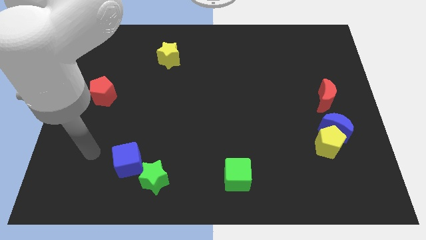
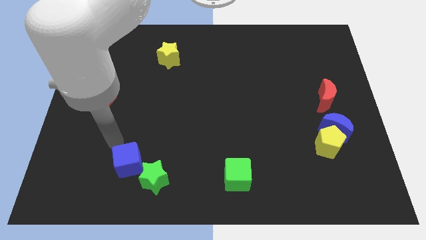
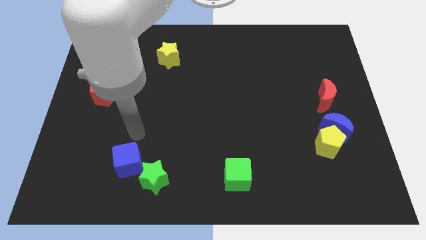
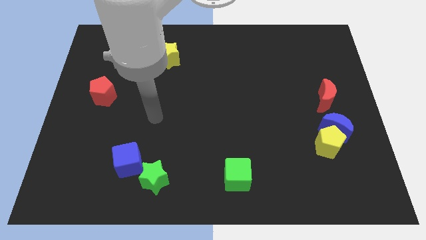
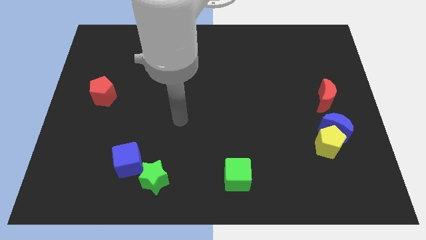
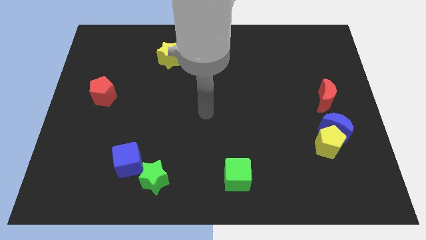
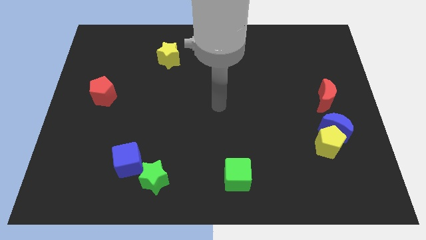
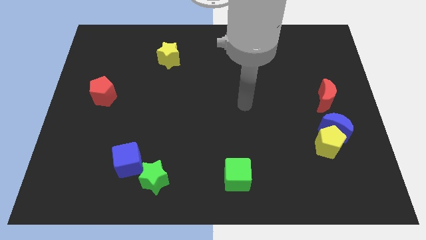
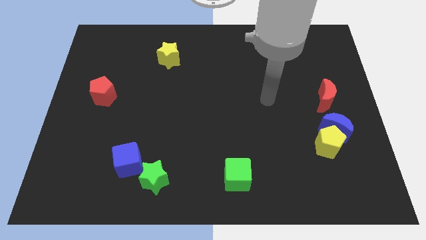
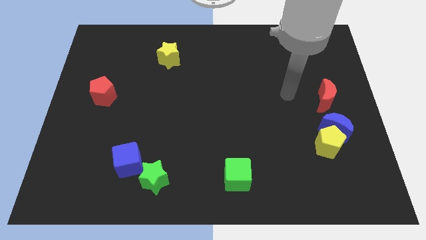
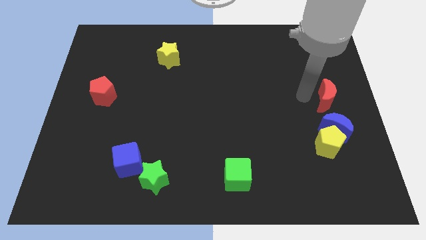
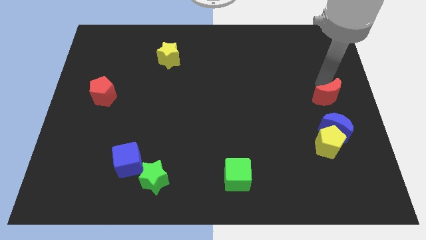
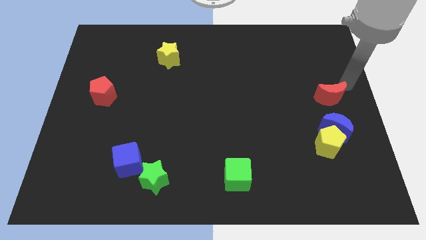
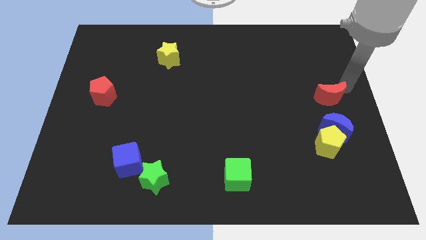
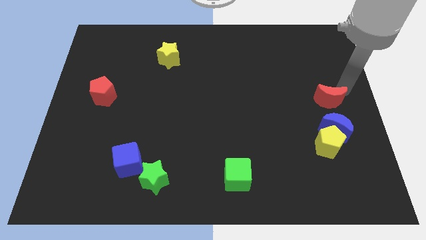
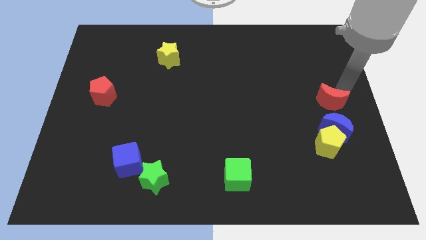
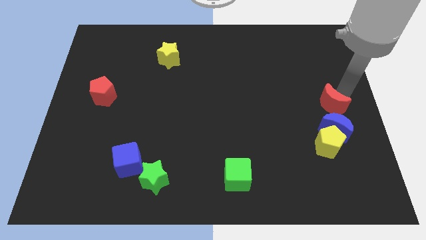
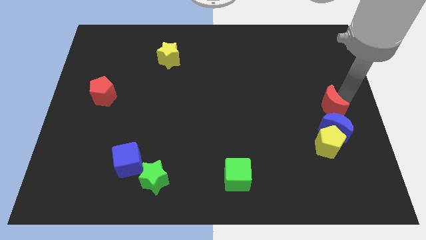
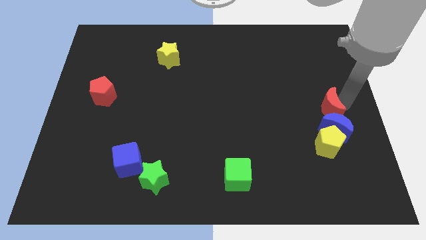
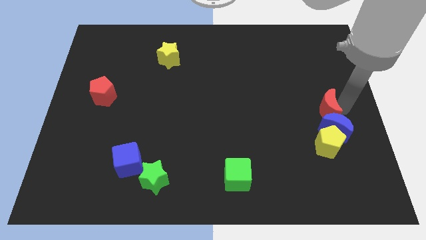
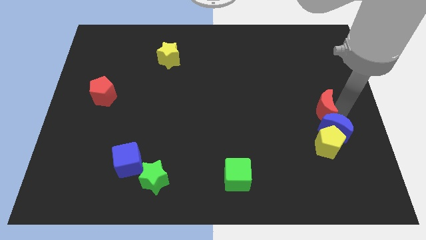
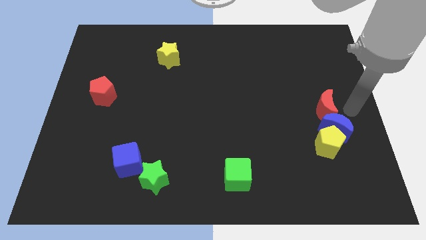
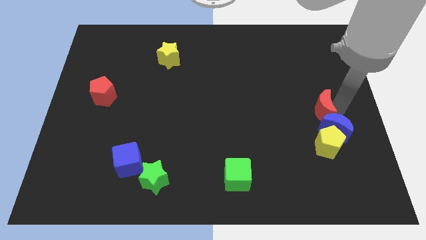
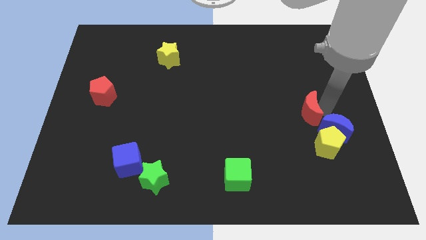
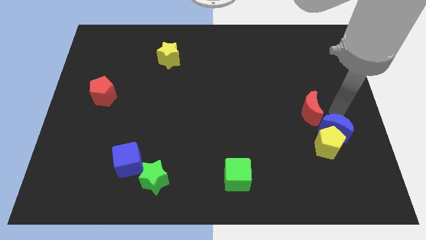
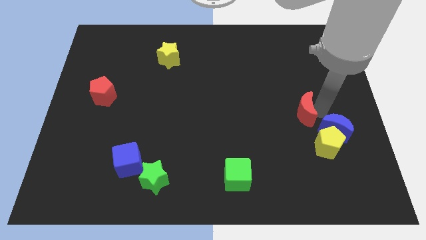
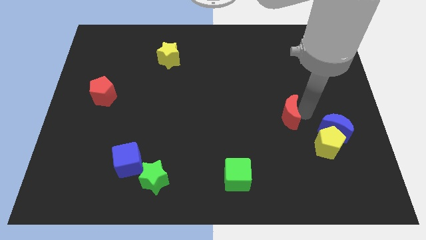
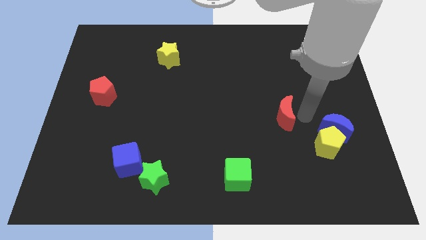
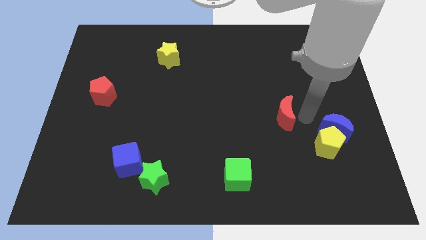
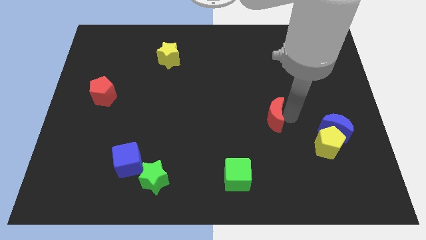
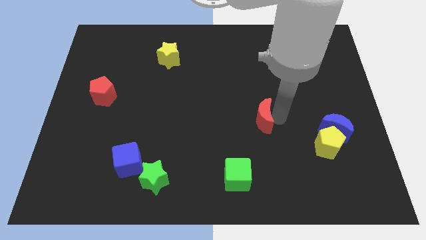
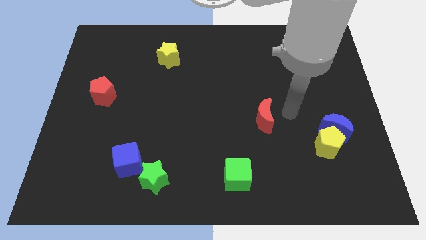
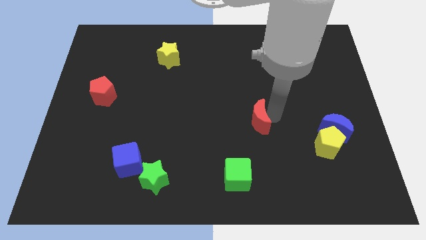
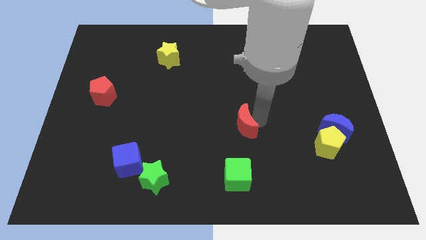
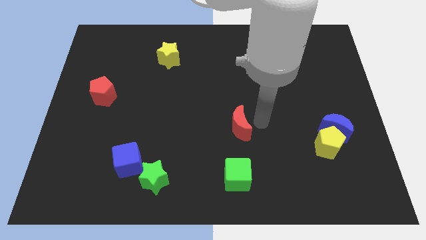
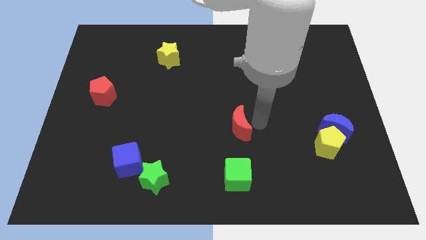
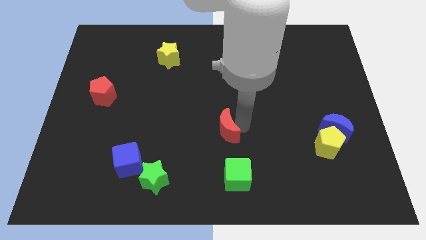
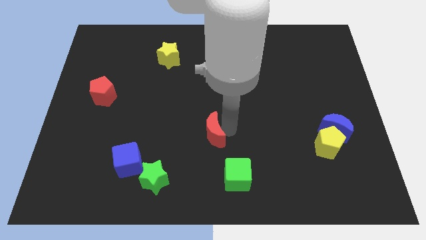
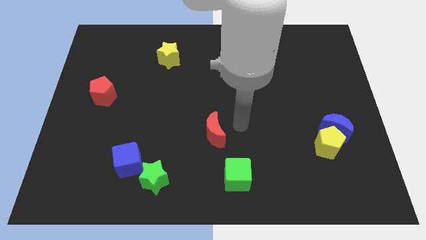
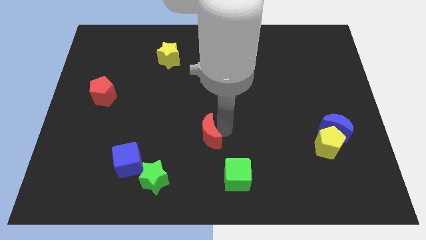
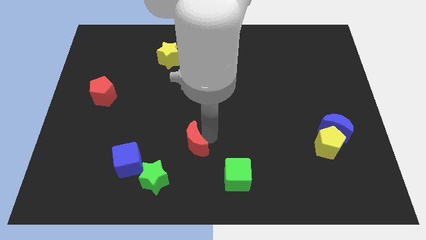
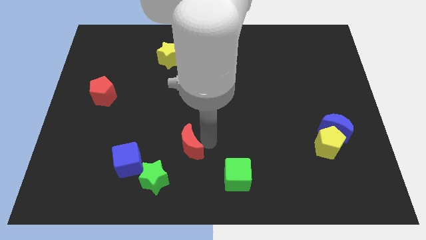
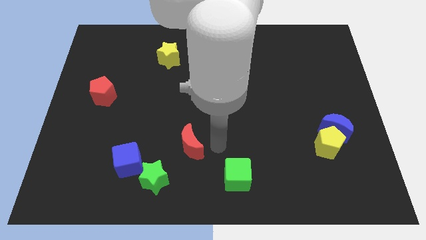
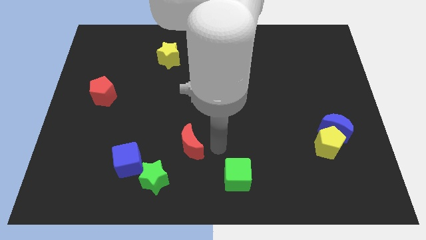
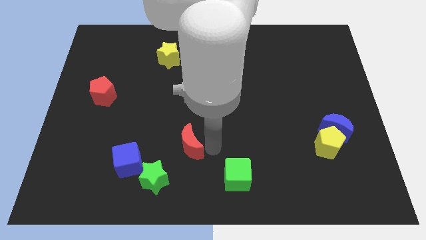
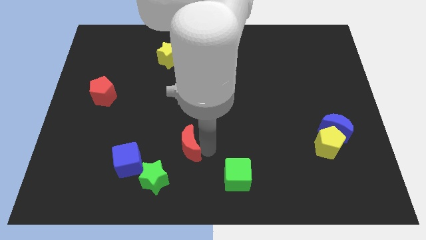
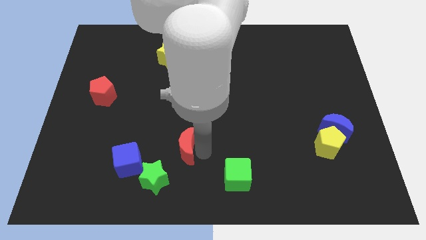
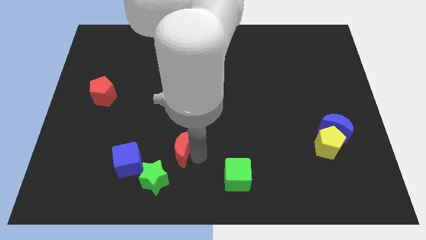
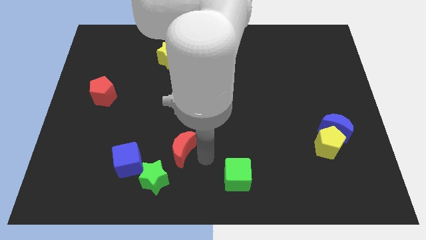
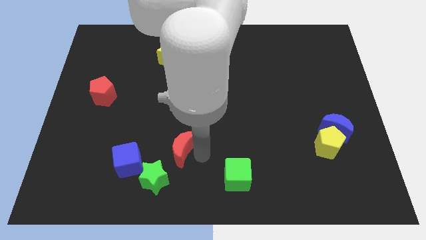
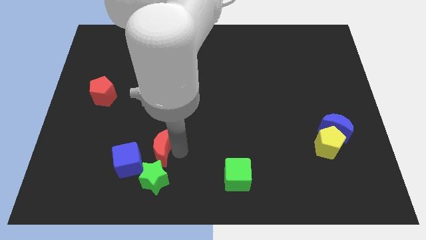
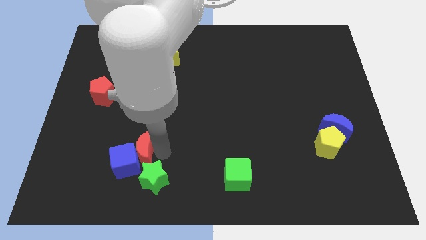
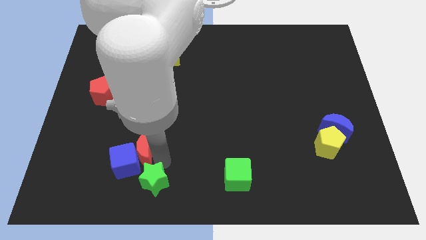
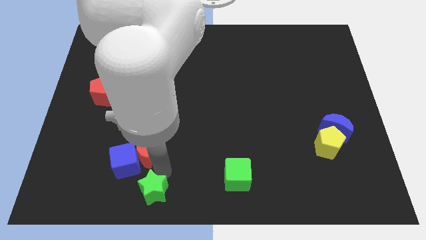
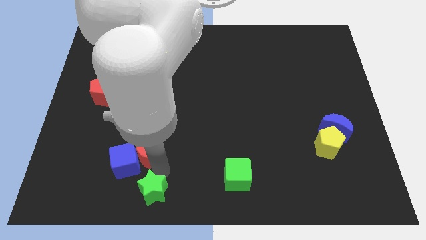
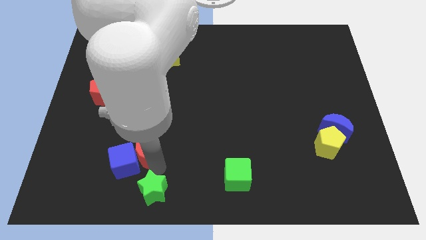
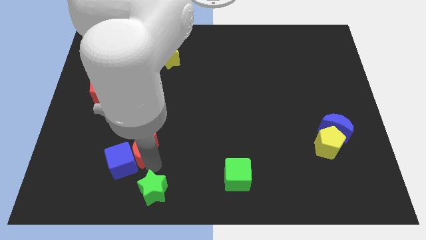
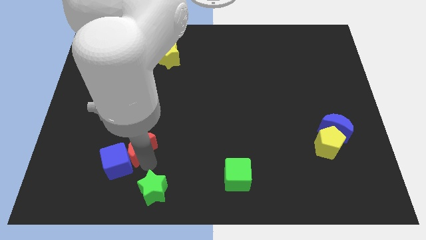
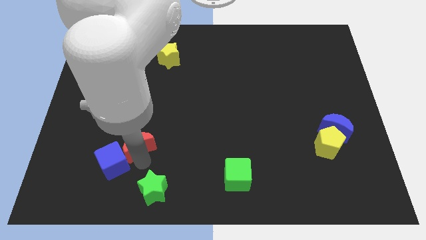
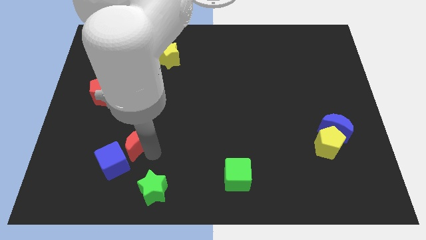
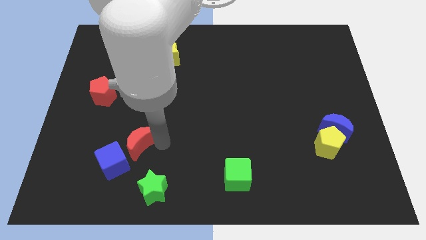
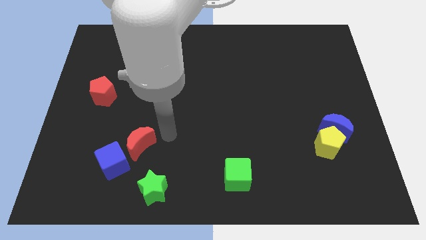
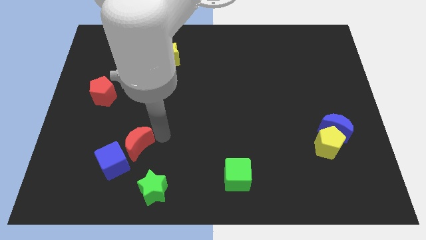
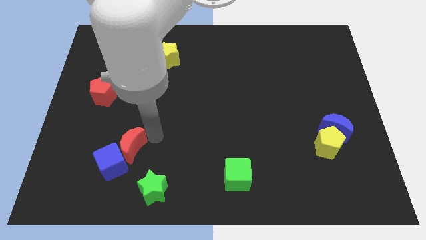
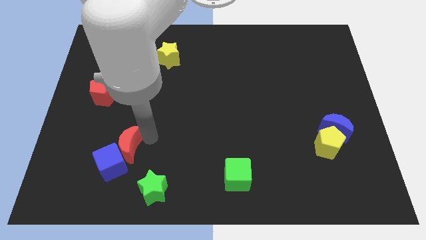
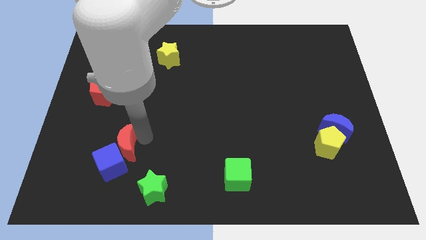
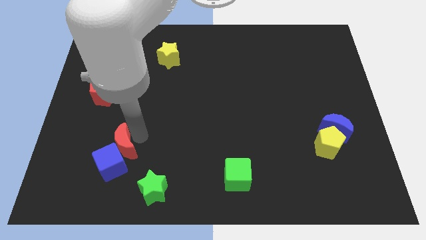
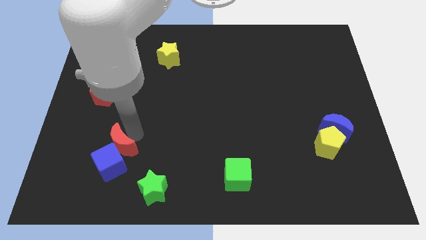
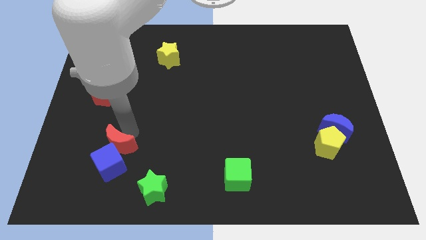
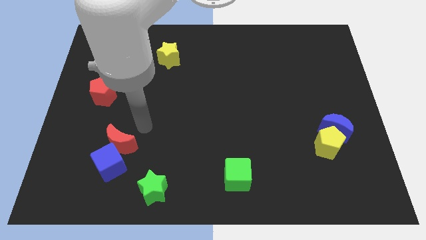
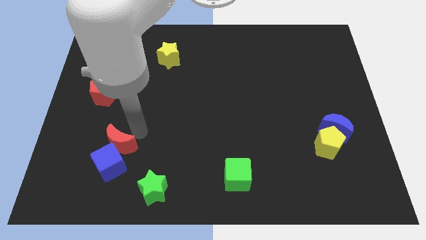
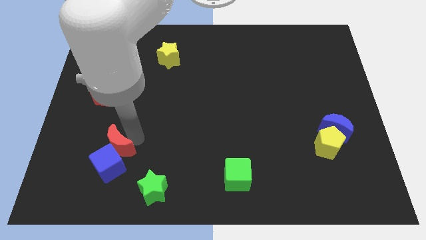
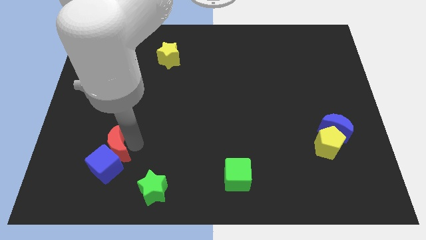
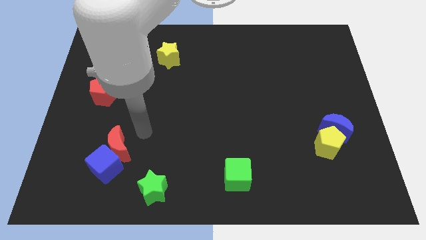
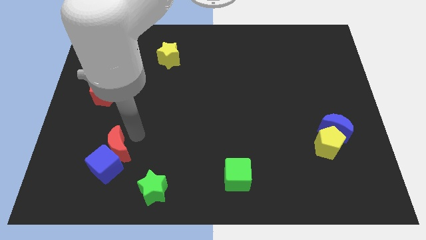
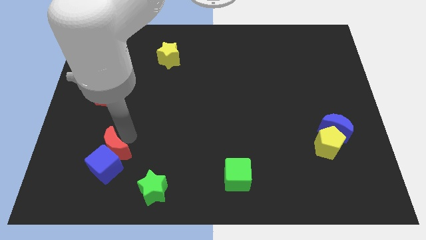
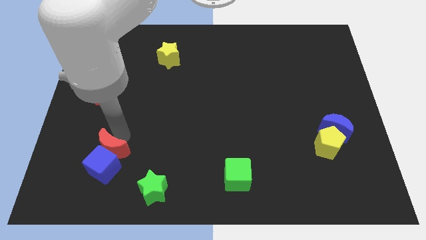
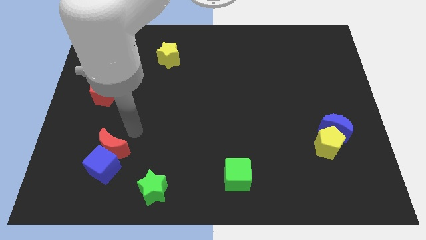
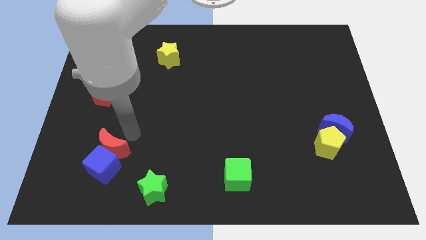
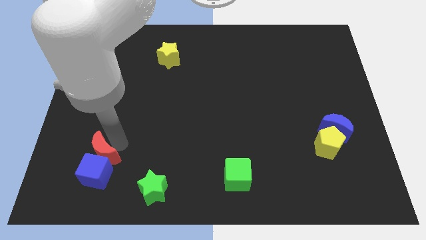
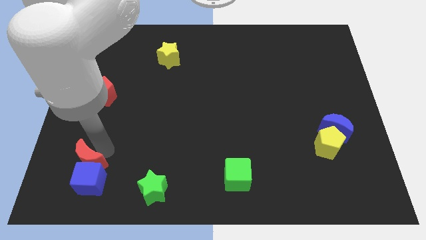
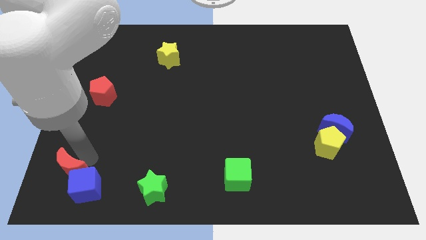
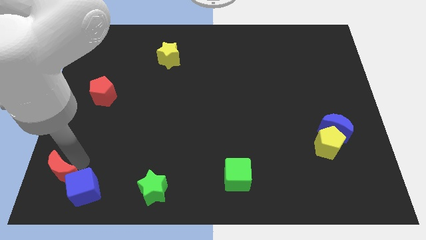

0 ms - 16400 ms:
push the red moon to the bottom left
